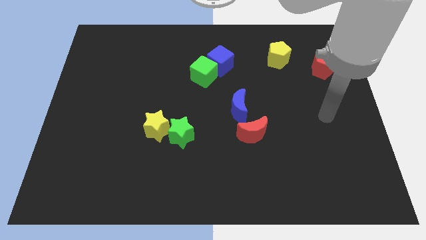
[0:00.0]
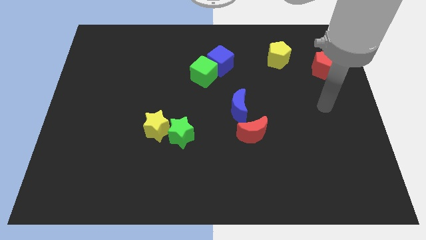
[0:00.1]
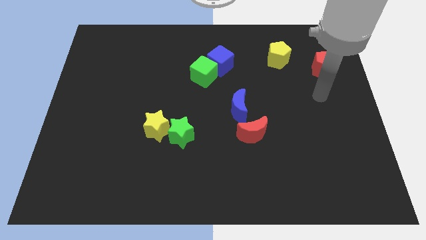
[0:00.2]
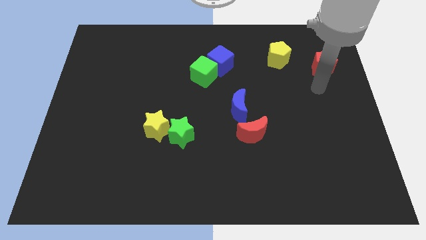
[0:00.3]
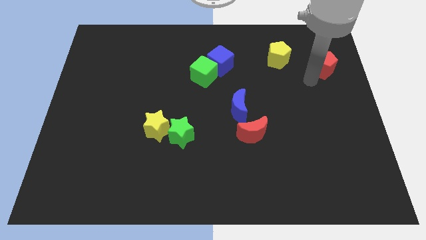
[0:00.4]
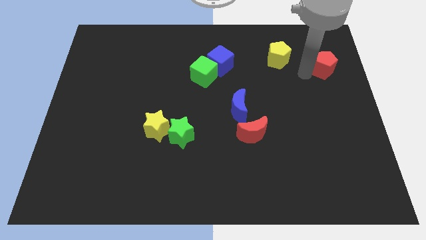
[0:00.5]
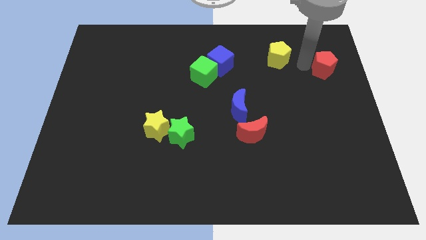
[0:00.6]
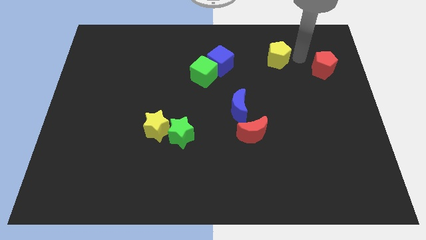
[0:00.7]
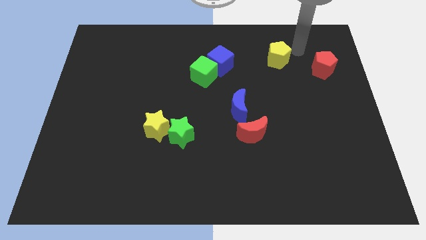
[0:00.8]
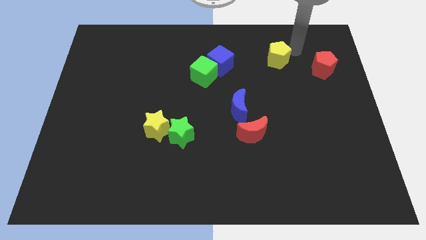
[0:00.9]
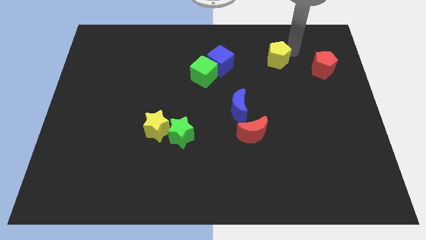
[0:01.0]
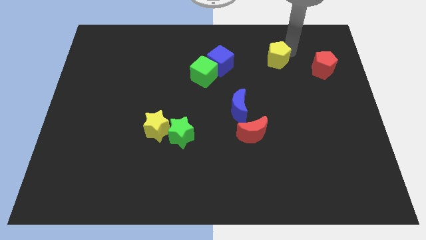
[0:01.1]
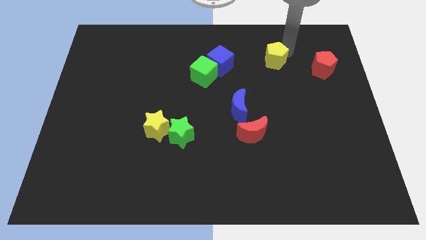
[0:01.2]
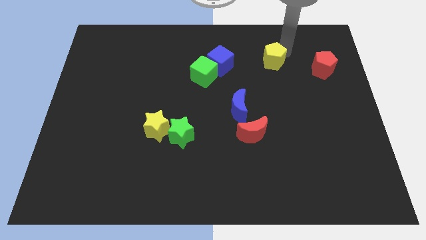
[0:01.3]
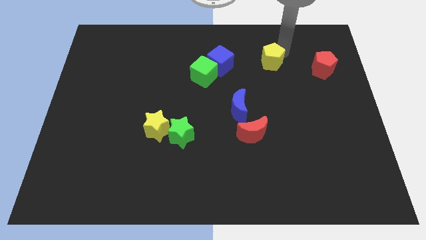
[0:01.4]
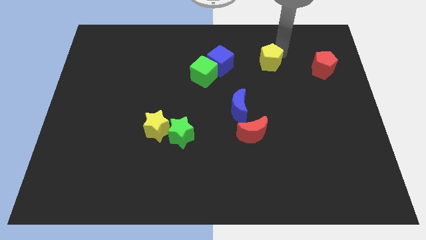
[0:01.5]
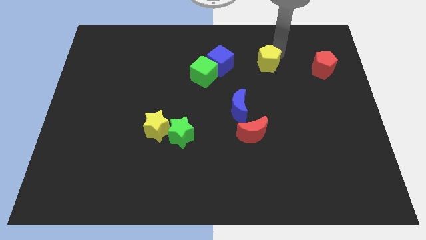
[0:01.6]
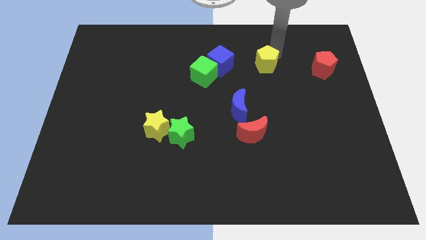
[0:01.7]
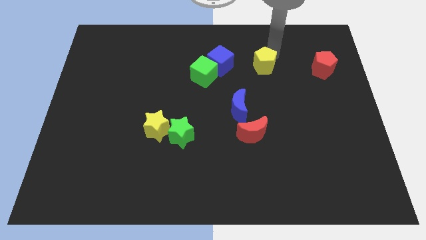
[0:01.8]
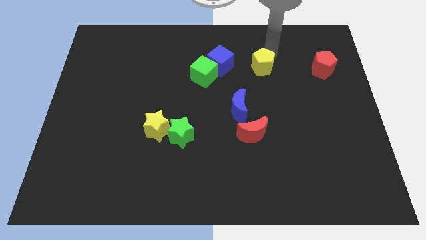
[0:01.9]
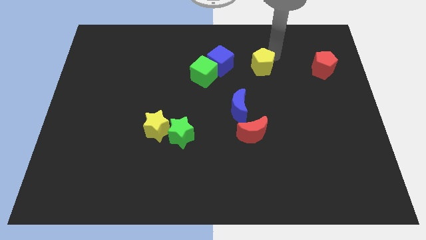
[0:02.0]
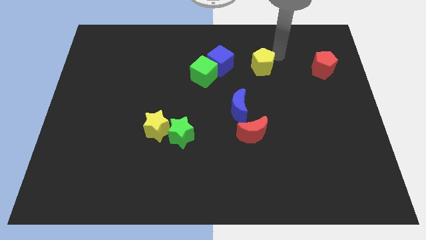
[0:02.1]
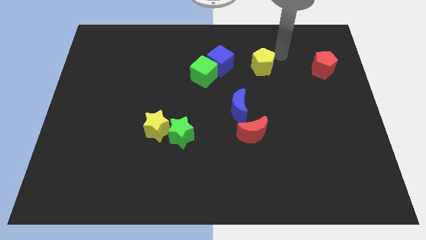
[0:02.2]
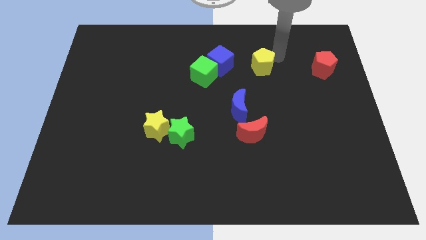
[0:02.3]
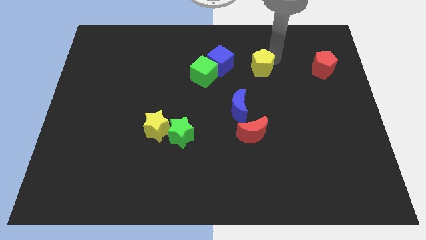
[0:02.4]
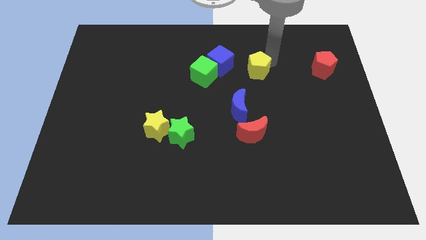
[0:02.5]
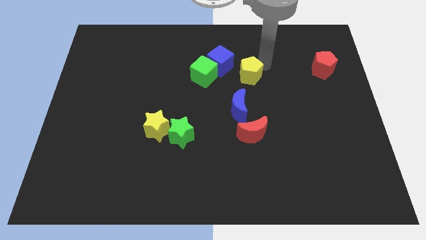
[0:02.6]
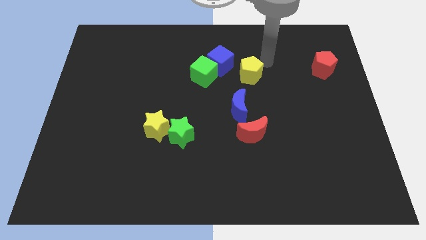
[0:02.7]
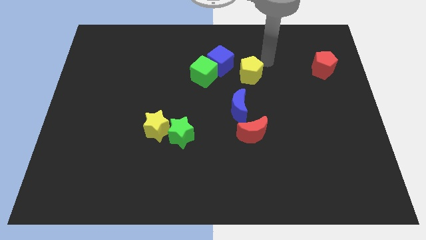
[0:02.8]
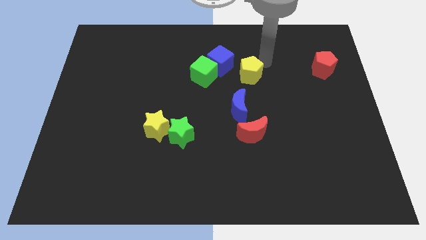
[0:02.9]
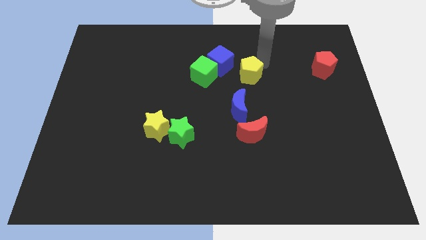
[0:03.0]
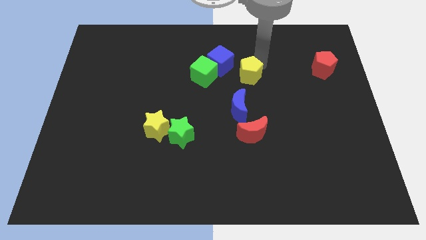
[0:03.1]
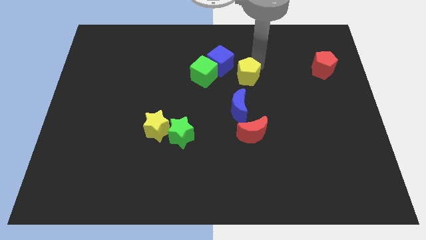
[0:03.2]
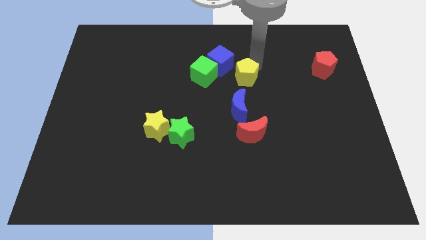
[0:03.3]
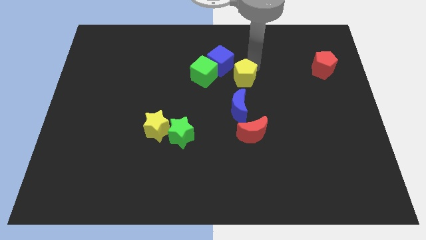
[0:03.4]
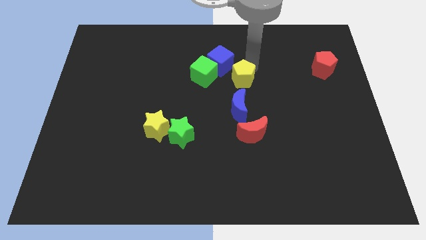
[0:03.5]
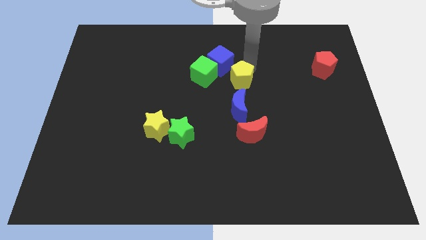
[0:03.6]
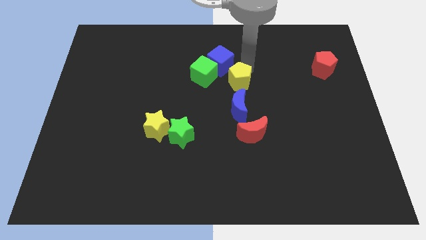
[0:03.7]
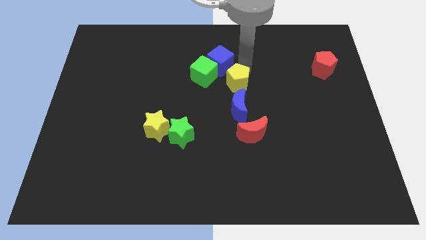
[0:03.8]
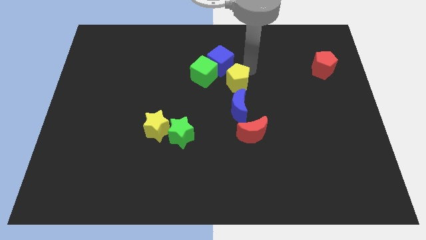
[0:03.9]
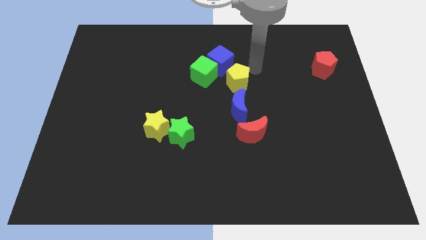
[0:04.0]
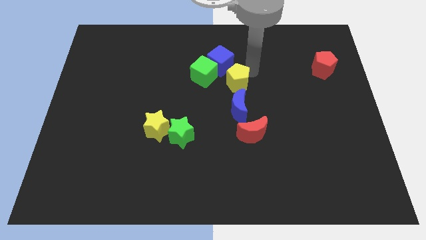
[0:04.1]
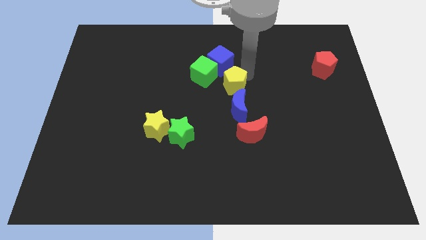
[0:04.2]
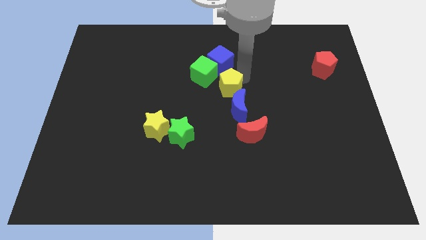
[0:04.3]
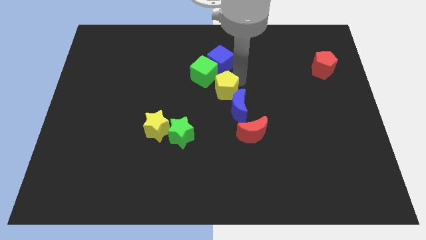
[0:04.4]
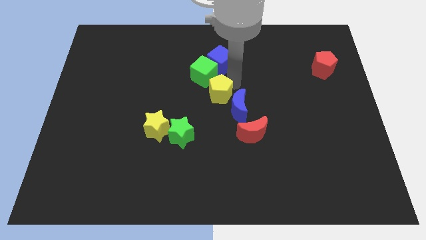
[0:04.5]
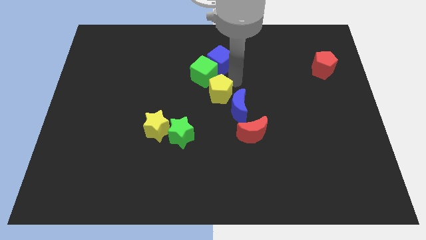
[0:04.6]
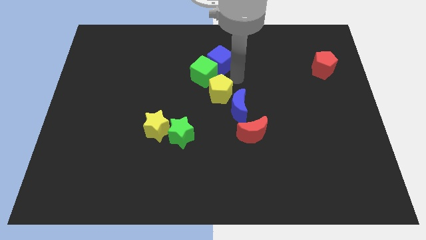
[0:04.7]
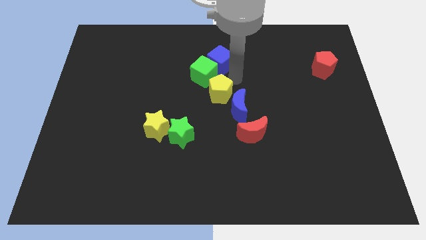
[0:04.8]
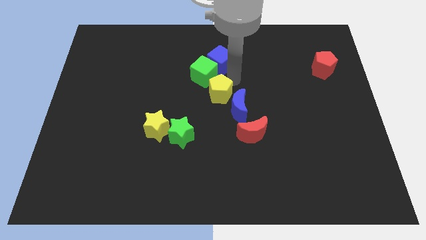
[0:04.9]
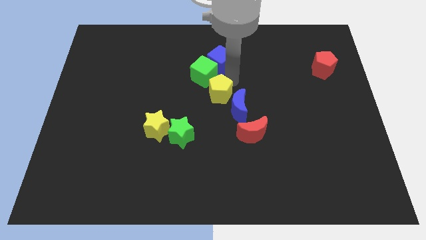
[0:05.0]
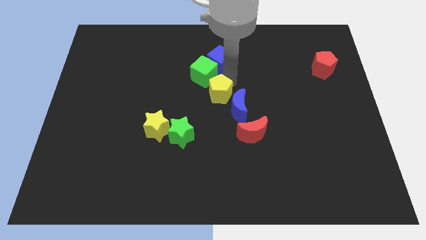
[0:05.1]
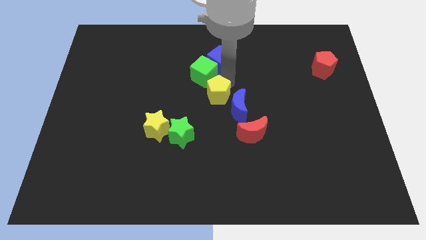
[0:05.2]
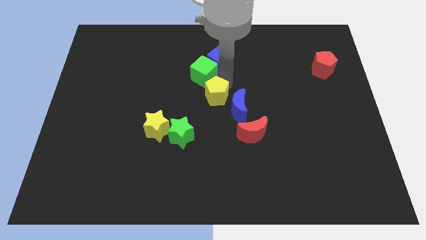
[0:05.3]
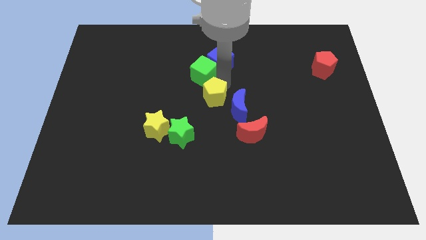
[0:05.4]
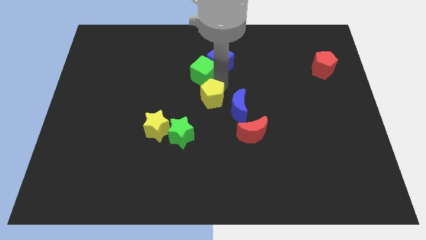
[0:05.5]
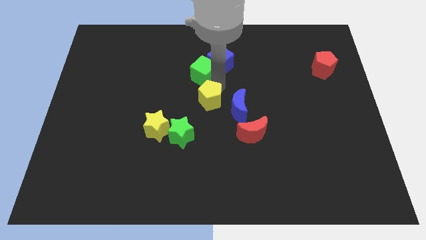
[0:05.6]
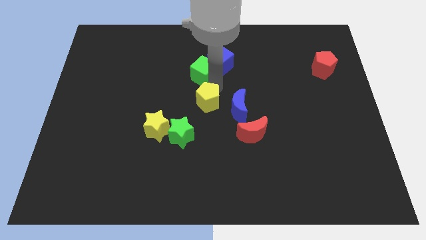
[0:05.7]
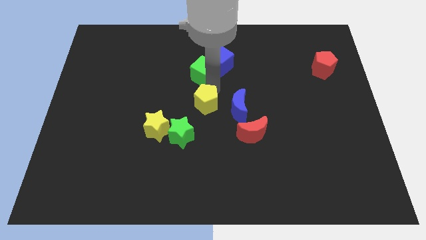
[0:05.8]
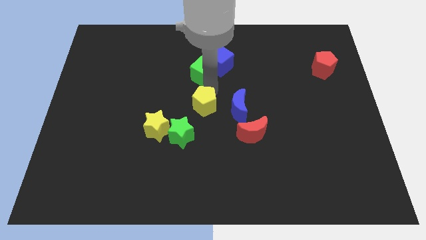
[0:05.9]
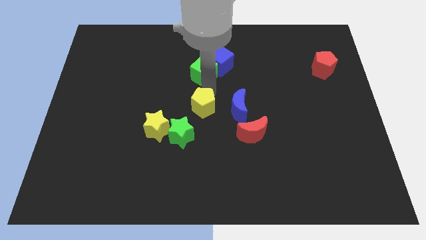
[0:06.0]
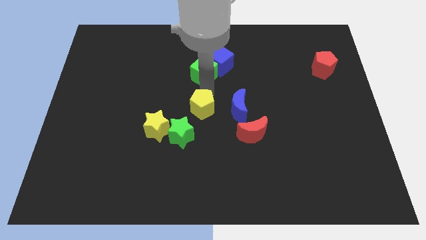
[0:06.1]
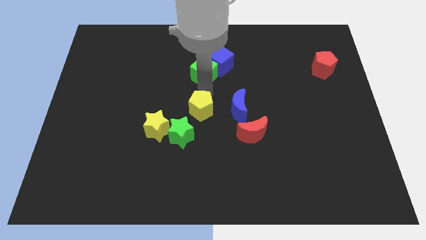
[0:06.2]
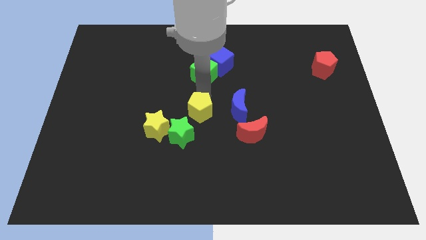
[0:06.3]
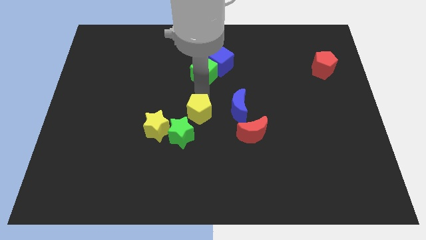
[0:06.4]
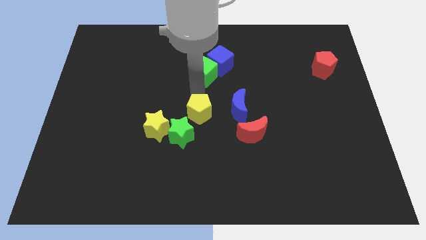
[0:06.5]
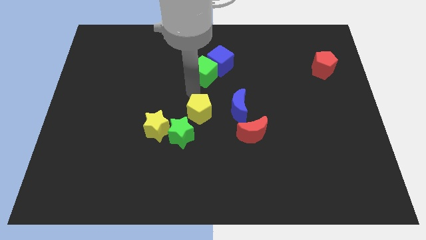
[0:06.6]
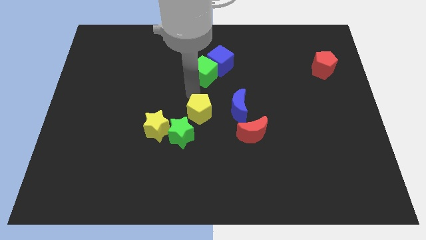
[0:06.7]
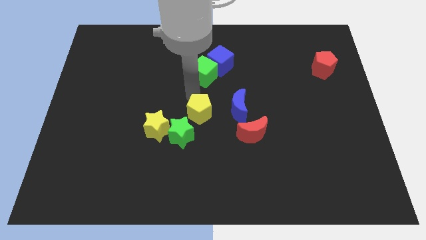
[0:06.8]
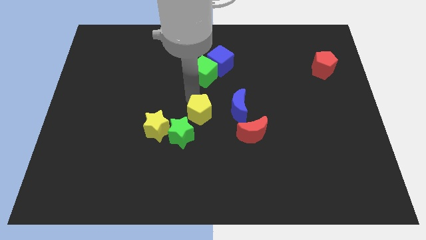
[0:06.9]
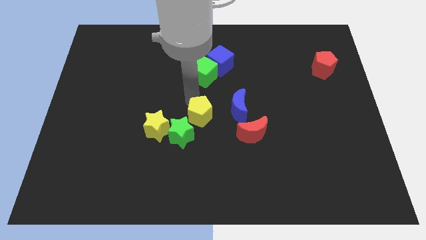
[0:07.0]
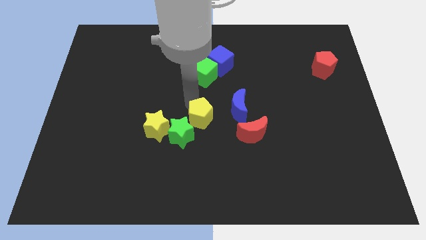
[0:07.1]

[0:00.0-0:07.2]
move the yellow pentagon to the left side of the red moon
